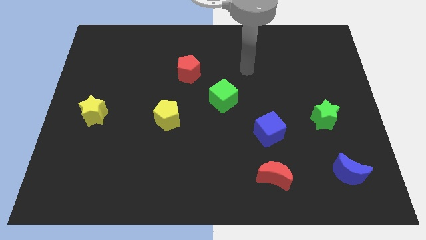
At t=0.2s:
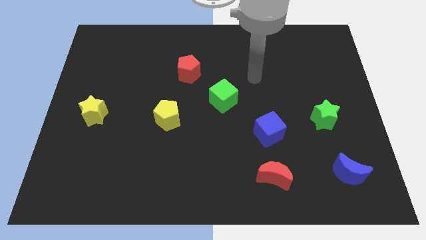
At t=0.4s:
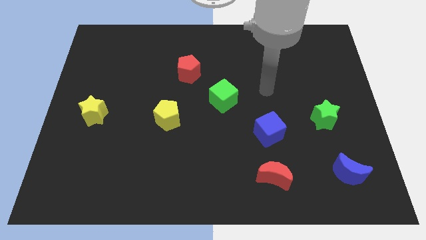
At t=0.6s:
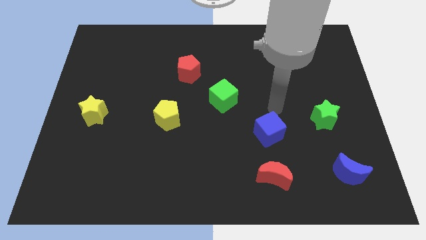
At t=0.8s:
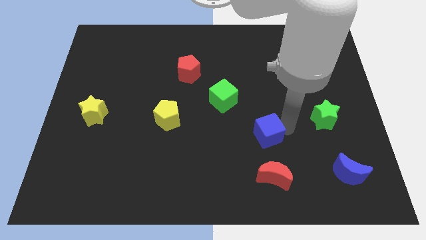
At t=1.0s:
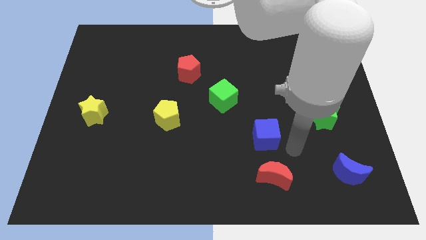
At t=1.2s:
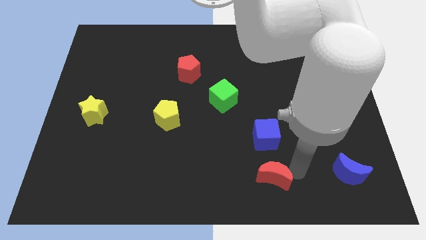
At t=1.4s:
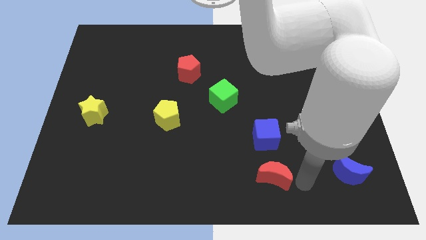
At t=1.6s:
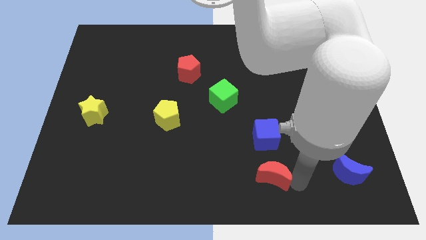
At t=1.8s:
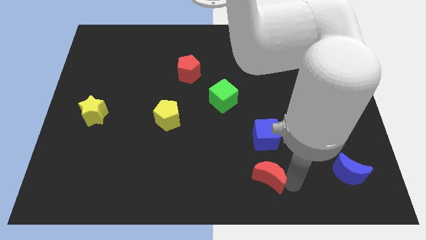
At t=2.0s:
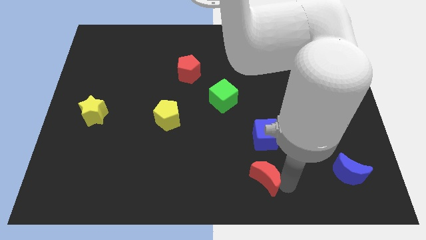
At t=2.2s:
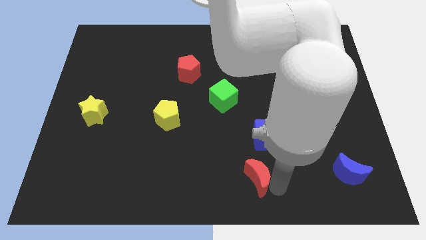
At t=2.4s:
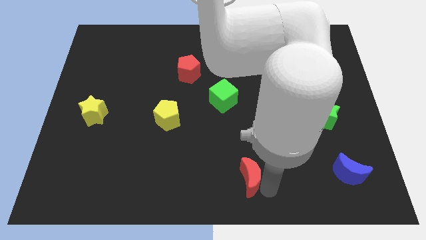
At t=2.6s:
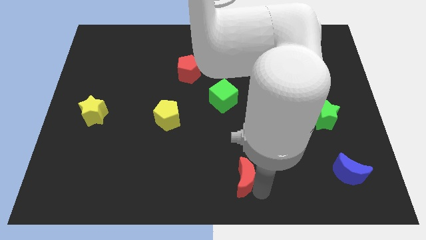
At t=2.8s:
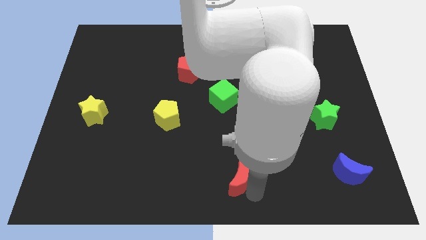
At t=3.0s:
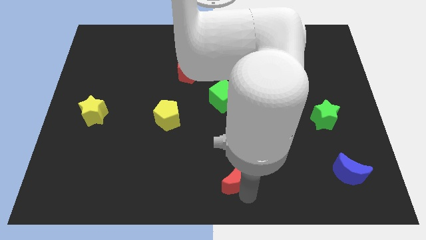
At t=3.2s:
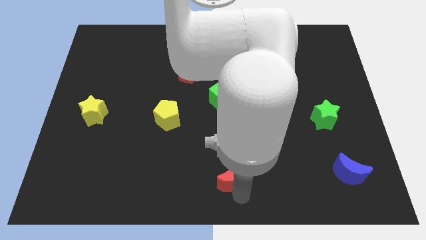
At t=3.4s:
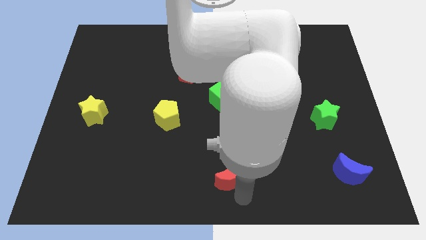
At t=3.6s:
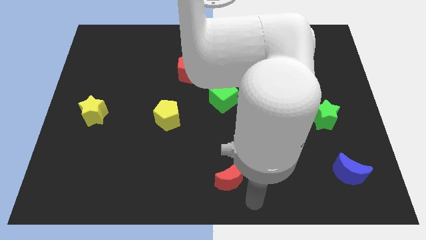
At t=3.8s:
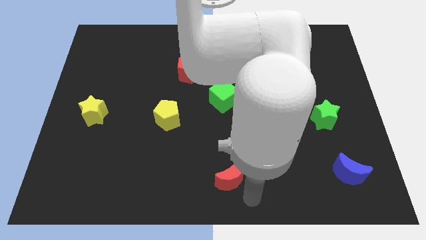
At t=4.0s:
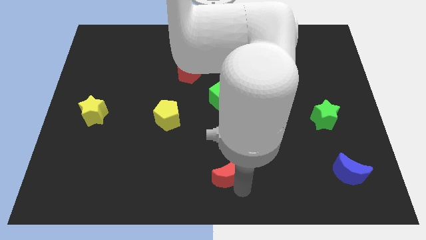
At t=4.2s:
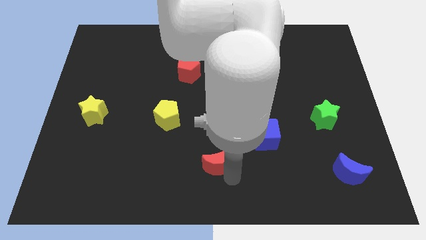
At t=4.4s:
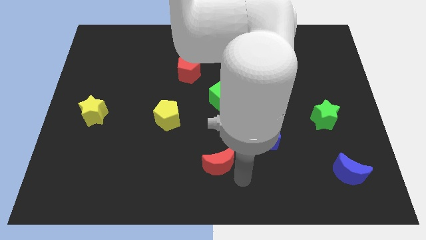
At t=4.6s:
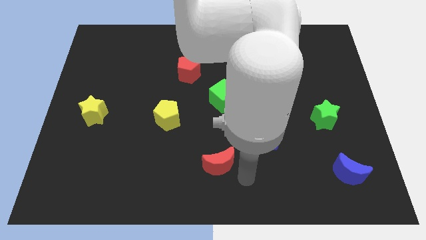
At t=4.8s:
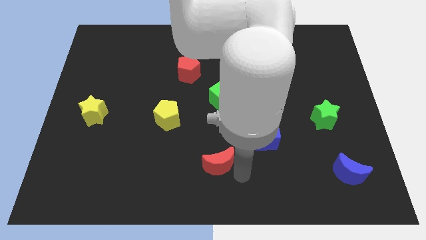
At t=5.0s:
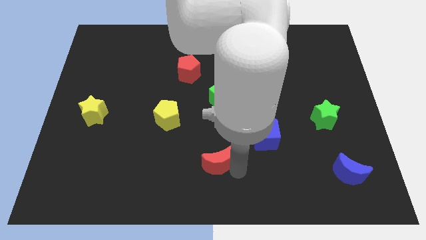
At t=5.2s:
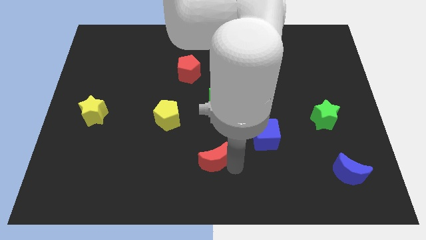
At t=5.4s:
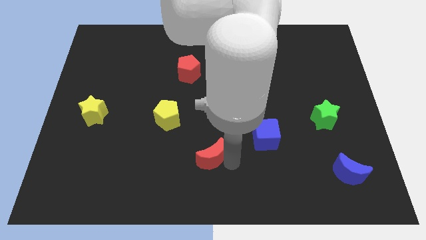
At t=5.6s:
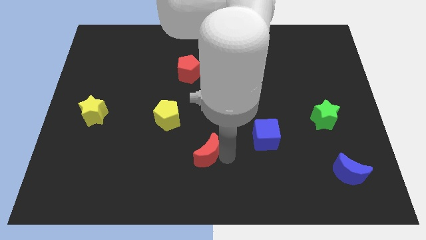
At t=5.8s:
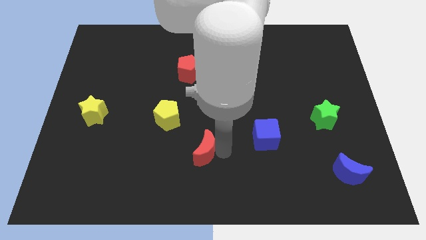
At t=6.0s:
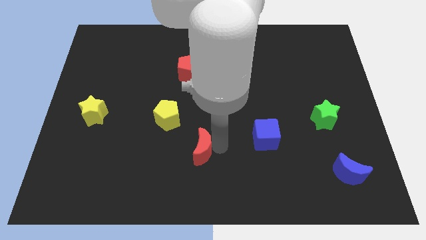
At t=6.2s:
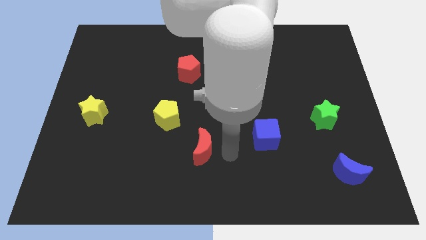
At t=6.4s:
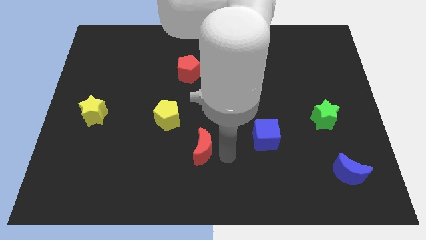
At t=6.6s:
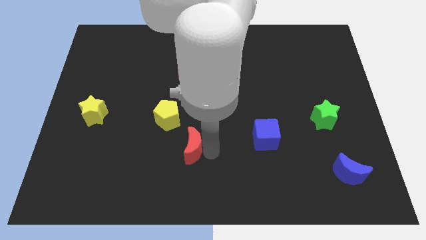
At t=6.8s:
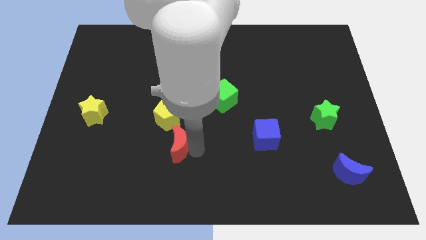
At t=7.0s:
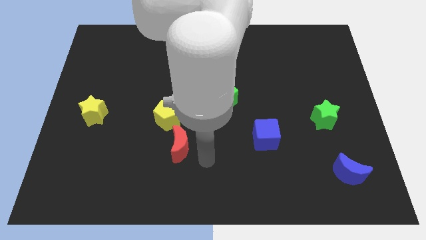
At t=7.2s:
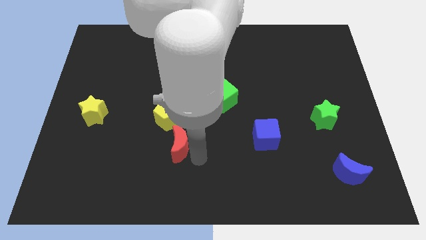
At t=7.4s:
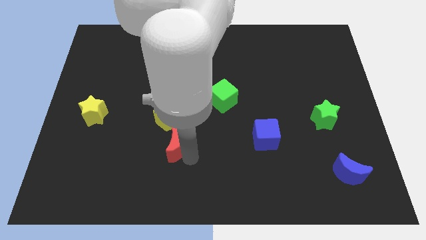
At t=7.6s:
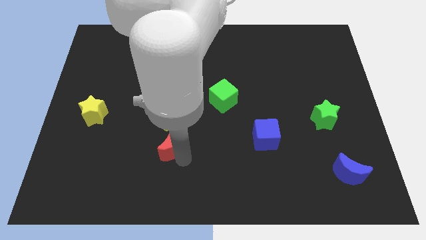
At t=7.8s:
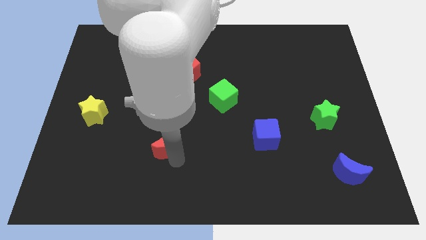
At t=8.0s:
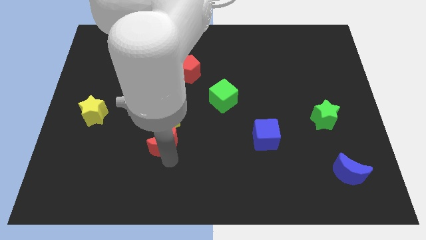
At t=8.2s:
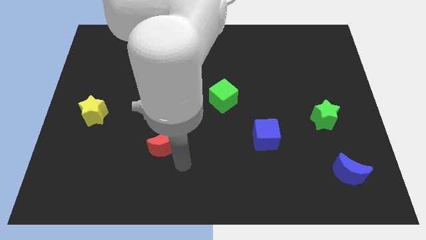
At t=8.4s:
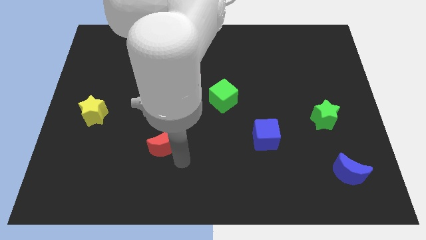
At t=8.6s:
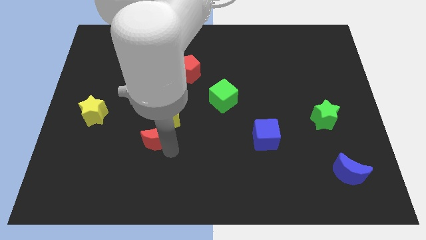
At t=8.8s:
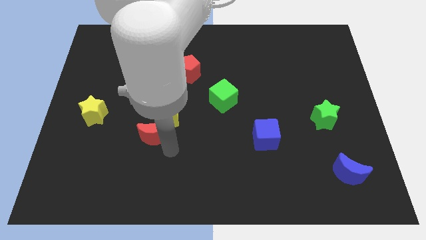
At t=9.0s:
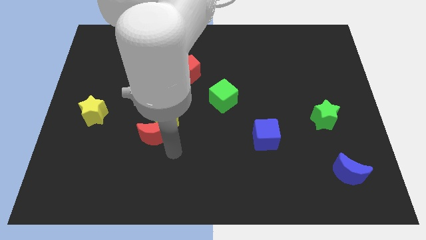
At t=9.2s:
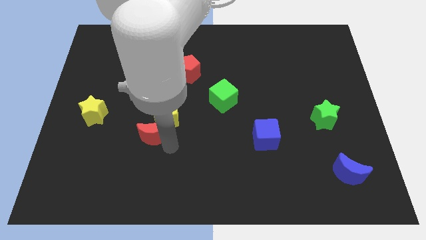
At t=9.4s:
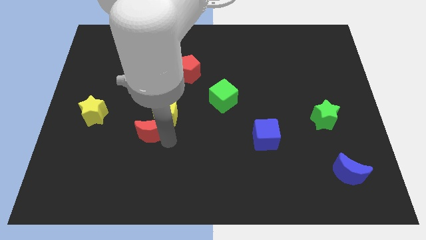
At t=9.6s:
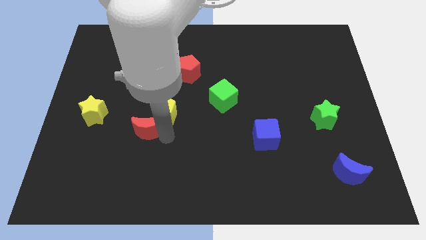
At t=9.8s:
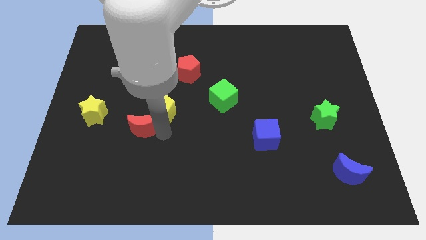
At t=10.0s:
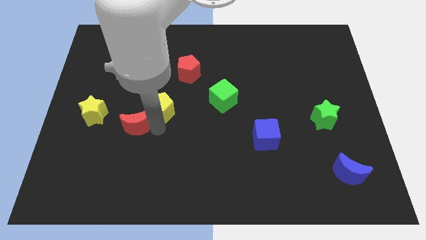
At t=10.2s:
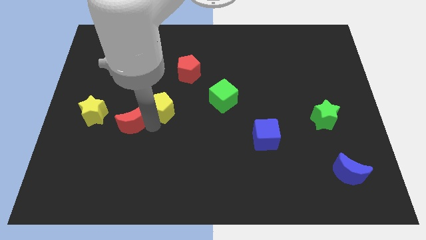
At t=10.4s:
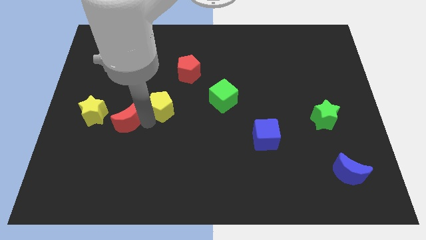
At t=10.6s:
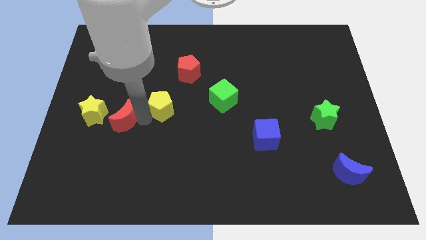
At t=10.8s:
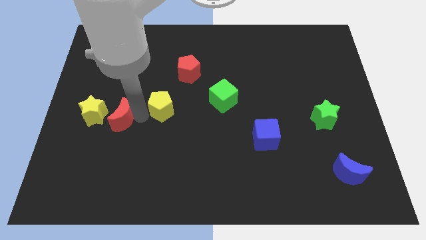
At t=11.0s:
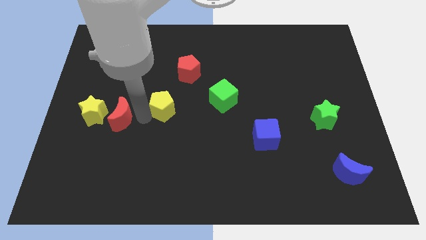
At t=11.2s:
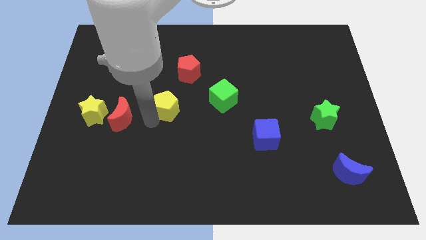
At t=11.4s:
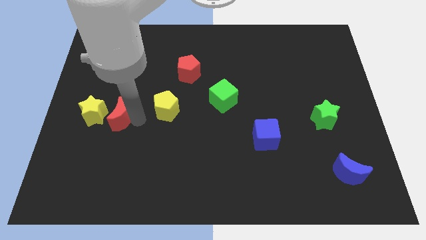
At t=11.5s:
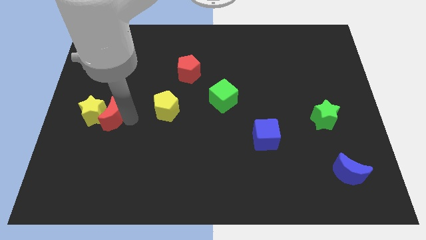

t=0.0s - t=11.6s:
put the red moon close to the yellow star

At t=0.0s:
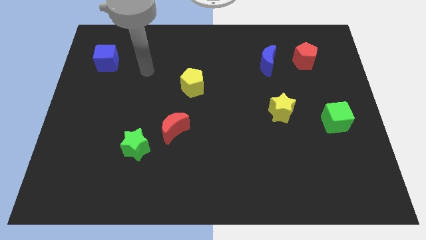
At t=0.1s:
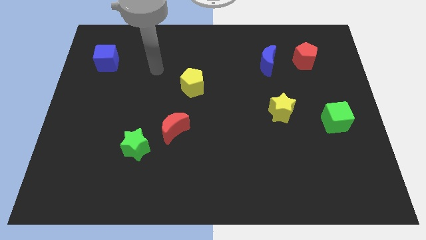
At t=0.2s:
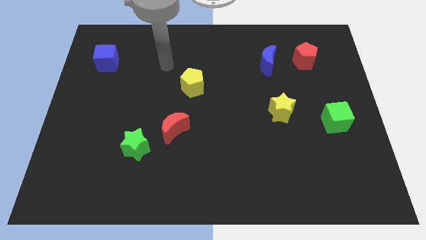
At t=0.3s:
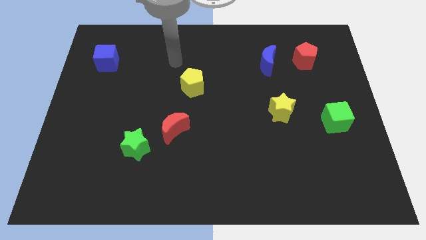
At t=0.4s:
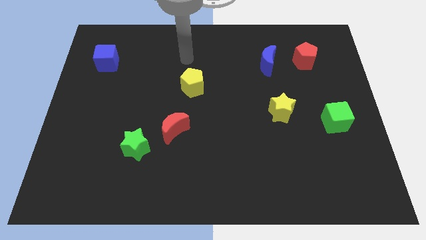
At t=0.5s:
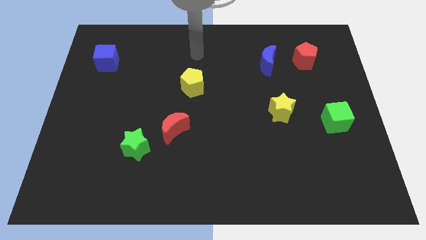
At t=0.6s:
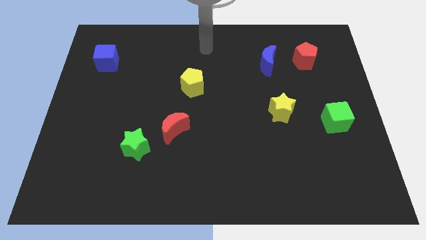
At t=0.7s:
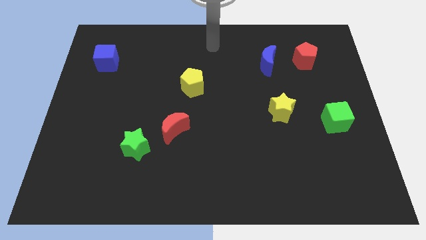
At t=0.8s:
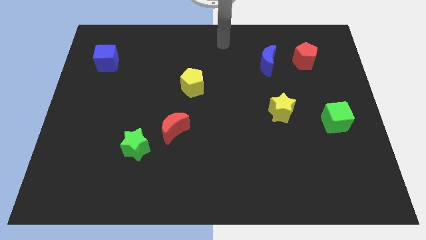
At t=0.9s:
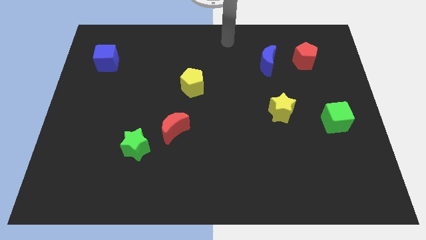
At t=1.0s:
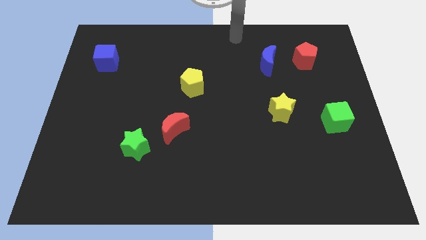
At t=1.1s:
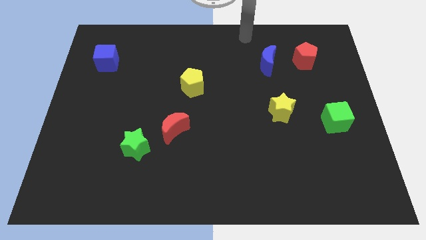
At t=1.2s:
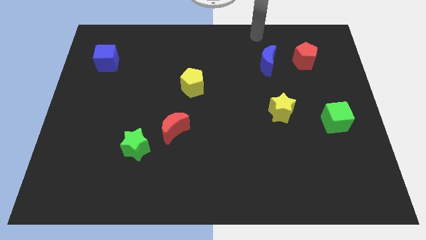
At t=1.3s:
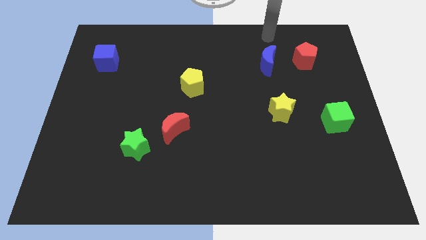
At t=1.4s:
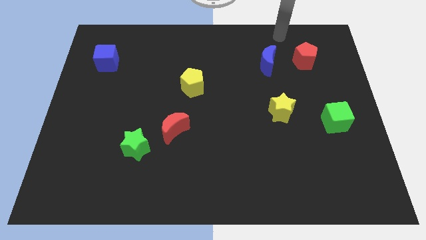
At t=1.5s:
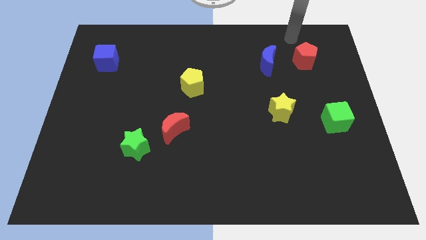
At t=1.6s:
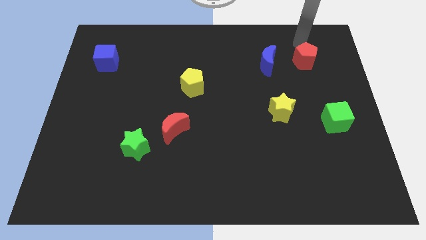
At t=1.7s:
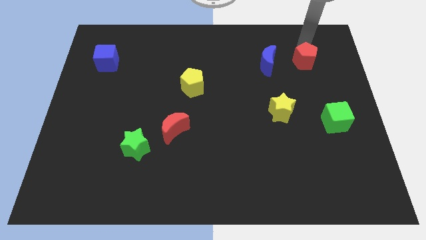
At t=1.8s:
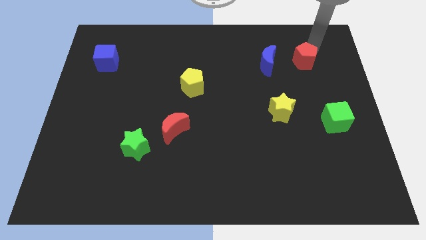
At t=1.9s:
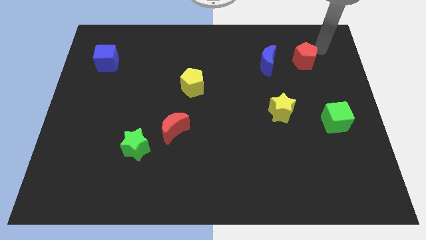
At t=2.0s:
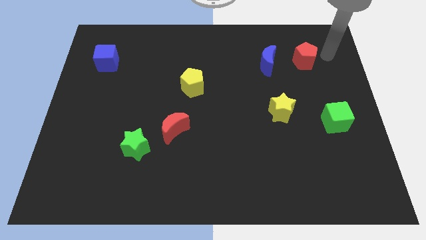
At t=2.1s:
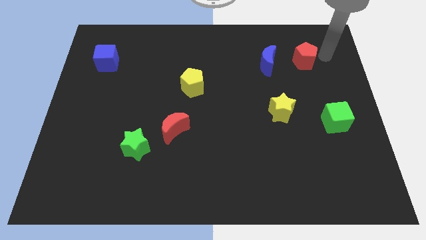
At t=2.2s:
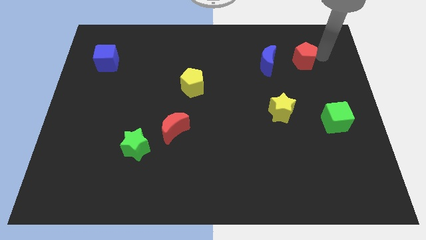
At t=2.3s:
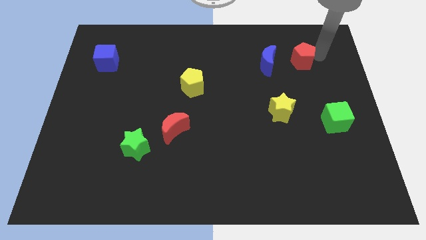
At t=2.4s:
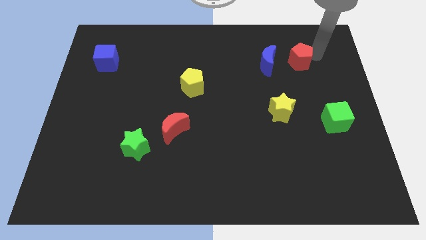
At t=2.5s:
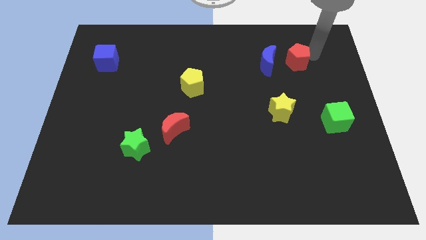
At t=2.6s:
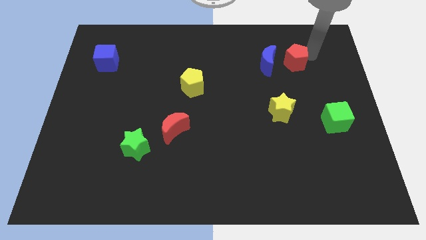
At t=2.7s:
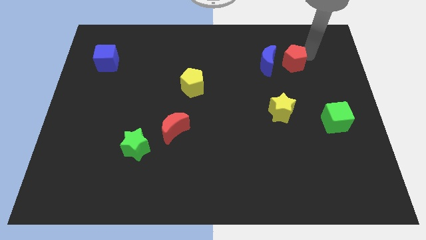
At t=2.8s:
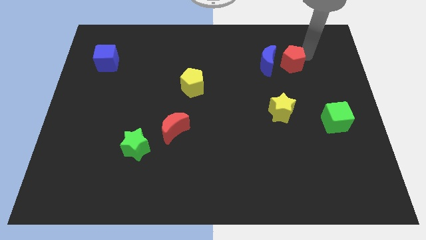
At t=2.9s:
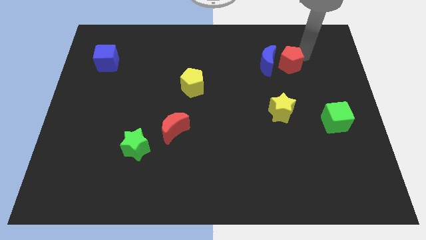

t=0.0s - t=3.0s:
put the red pentagon towards the blue moon
